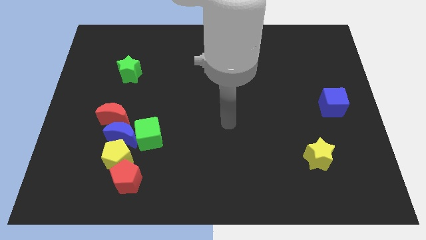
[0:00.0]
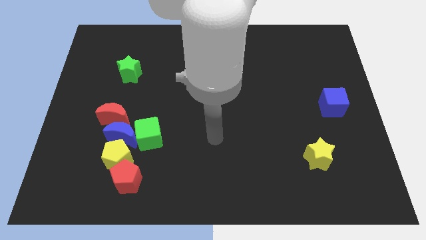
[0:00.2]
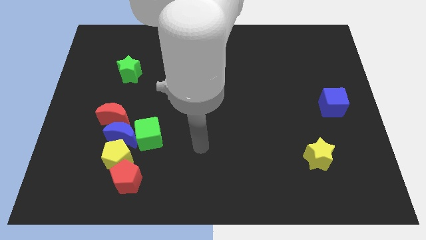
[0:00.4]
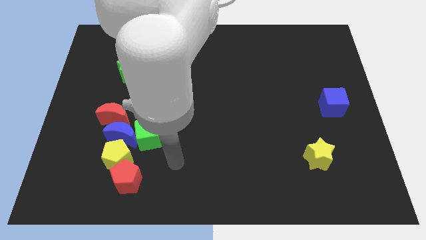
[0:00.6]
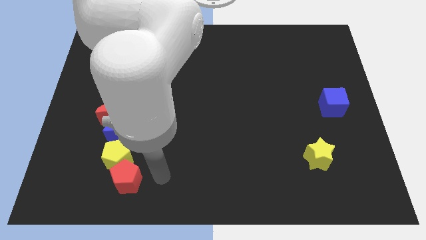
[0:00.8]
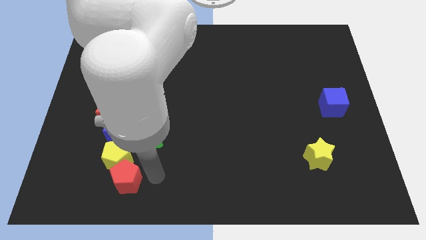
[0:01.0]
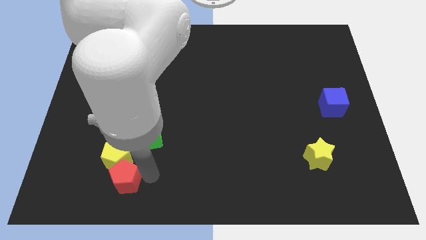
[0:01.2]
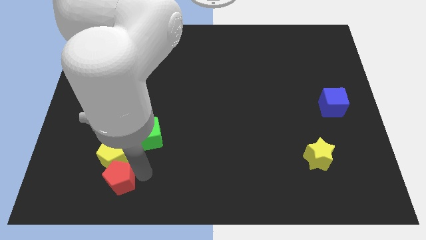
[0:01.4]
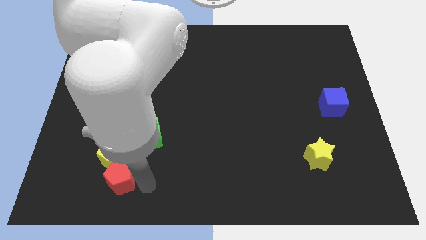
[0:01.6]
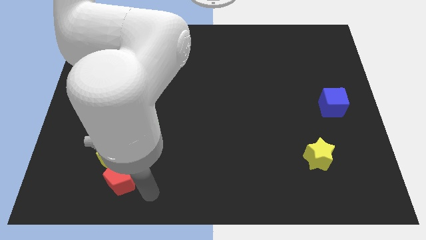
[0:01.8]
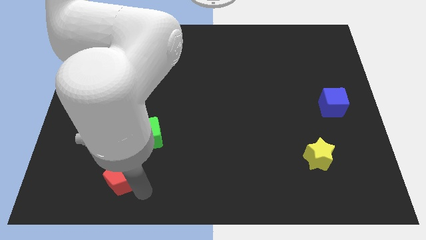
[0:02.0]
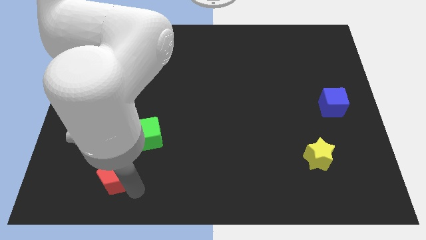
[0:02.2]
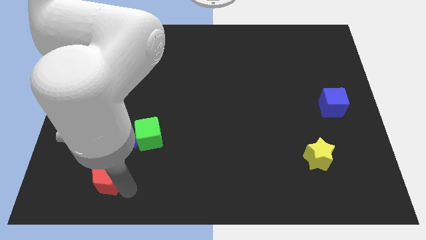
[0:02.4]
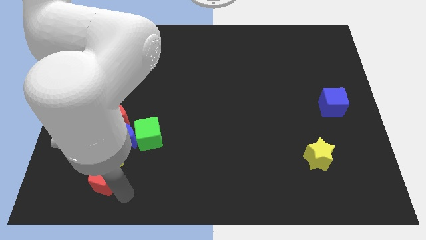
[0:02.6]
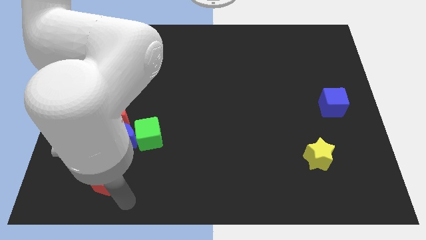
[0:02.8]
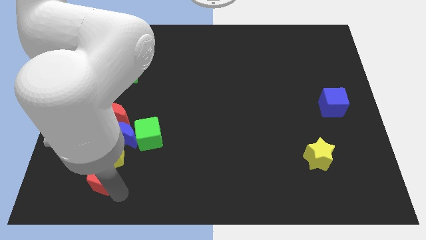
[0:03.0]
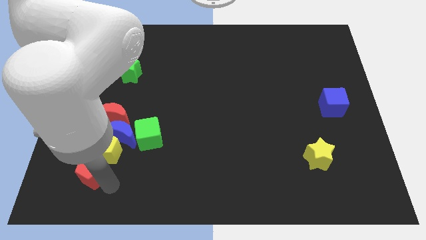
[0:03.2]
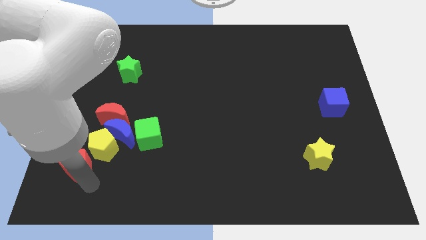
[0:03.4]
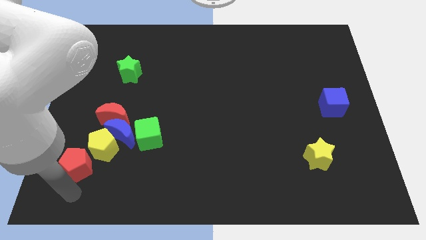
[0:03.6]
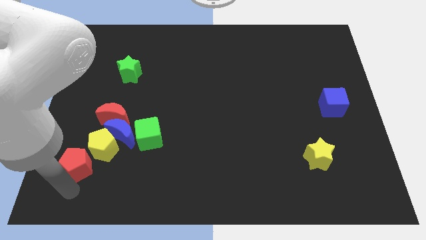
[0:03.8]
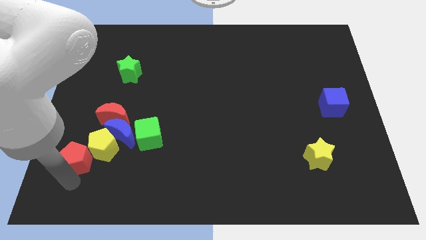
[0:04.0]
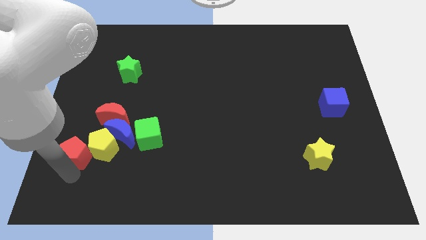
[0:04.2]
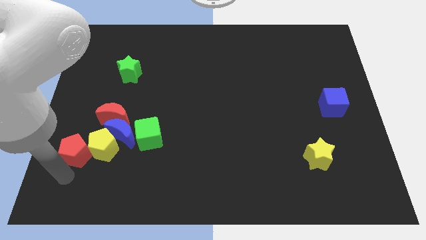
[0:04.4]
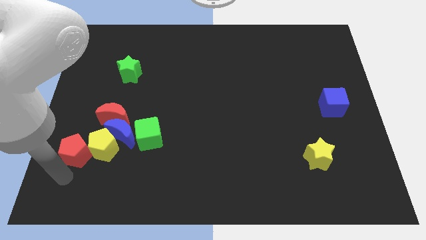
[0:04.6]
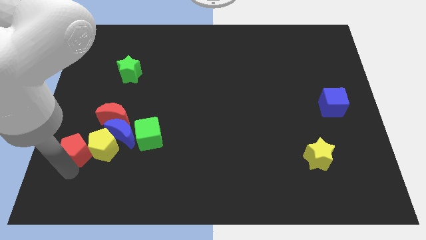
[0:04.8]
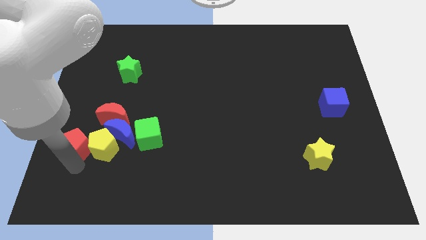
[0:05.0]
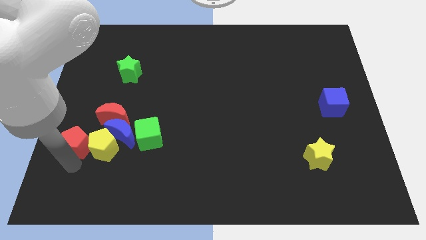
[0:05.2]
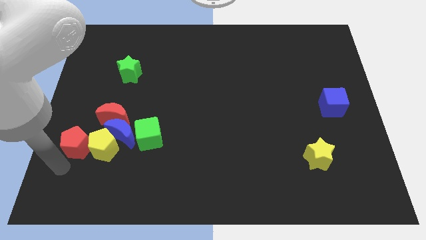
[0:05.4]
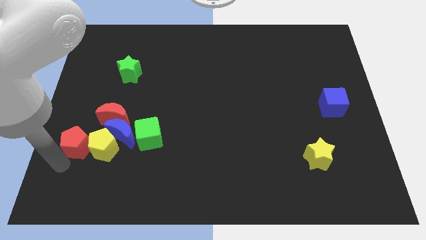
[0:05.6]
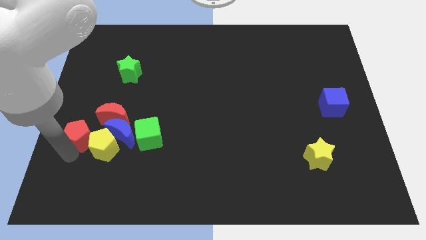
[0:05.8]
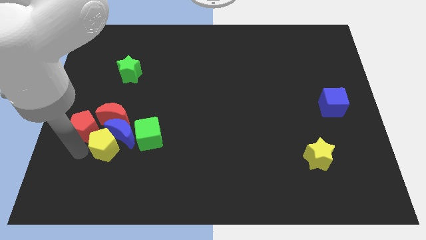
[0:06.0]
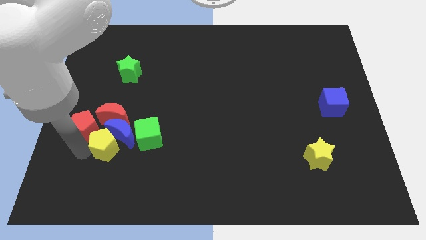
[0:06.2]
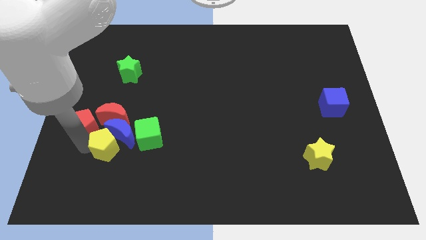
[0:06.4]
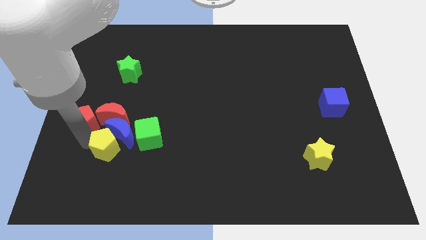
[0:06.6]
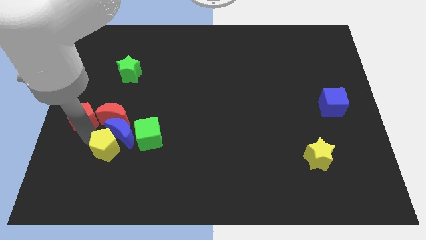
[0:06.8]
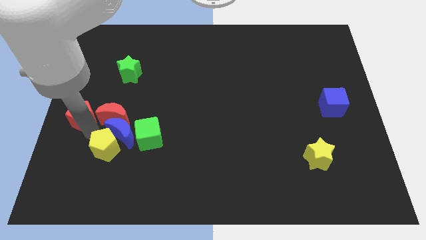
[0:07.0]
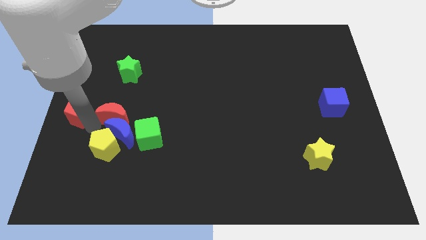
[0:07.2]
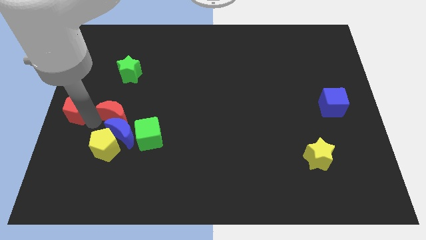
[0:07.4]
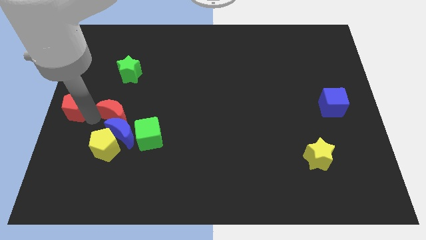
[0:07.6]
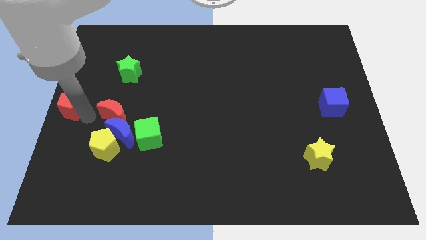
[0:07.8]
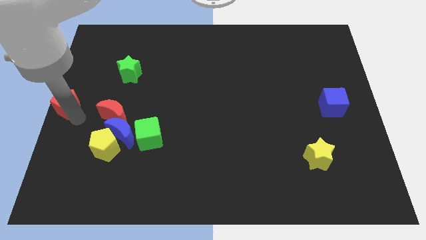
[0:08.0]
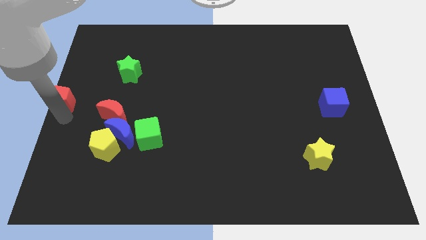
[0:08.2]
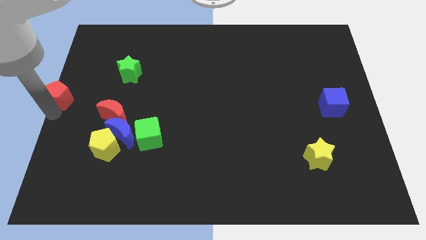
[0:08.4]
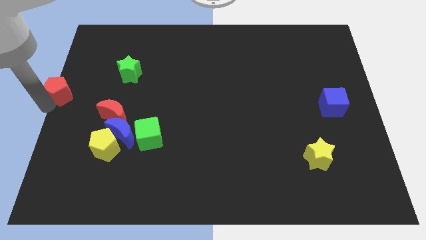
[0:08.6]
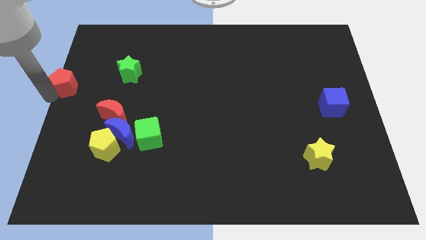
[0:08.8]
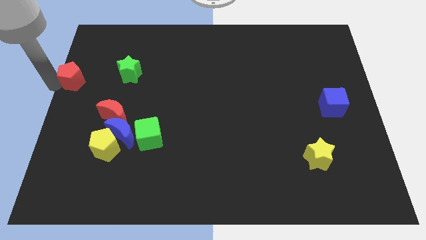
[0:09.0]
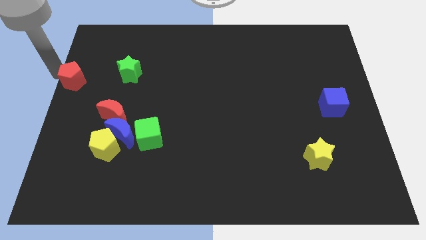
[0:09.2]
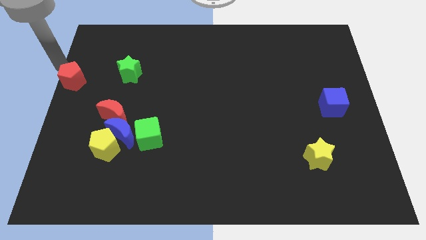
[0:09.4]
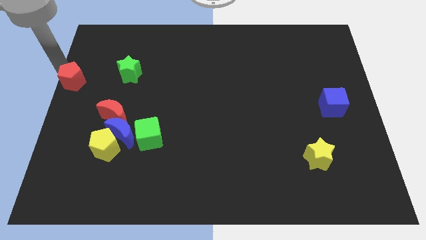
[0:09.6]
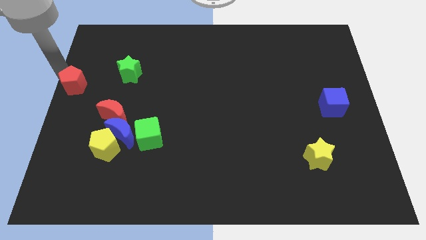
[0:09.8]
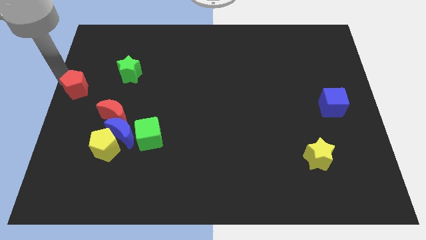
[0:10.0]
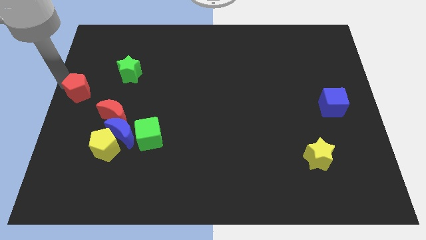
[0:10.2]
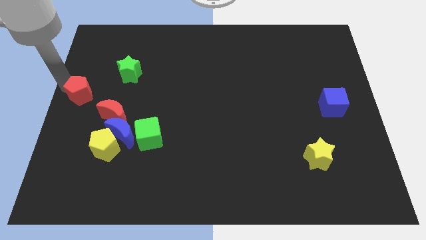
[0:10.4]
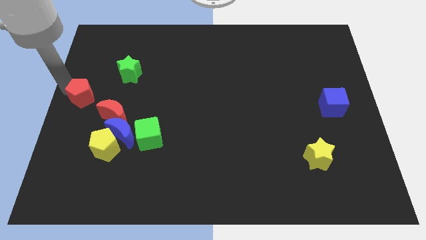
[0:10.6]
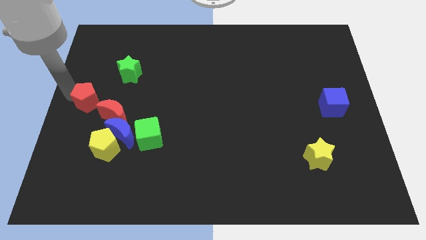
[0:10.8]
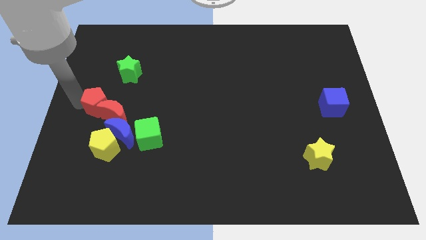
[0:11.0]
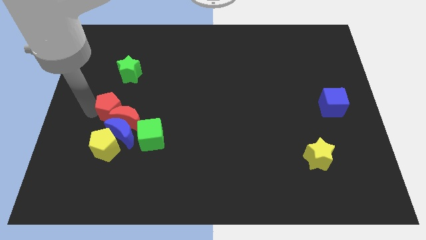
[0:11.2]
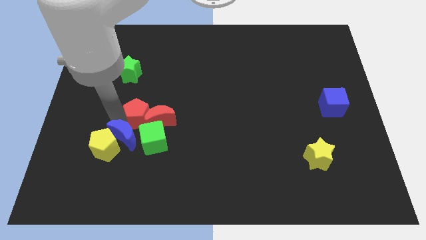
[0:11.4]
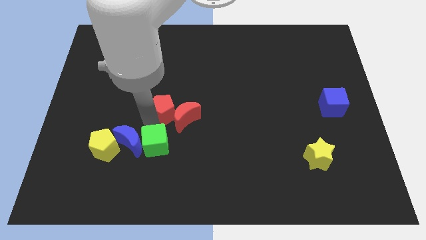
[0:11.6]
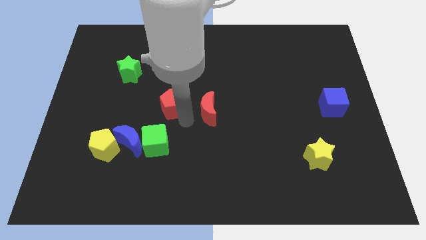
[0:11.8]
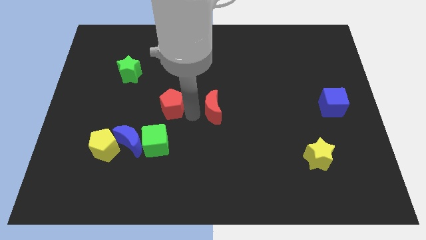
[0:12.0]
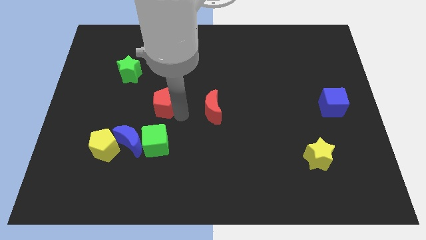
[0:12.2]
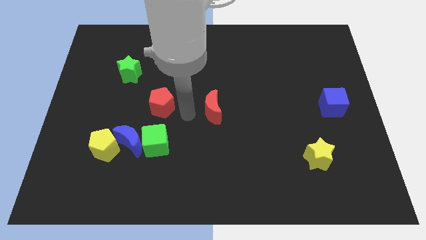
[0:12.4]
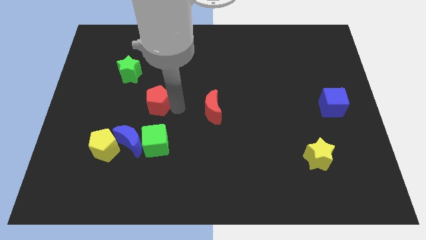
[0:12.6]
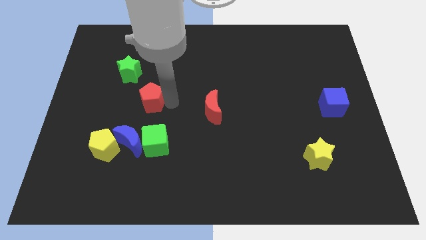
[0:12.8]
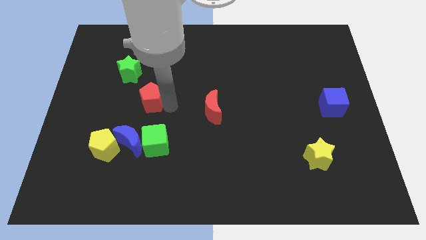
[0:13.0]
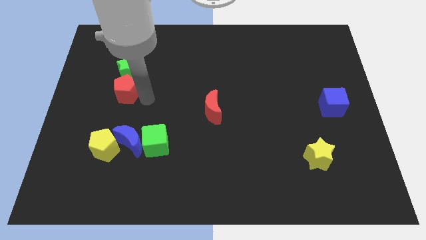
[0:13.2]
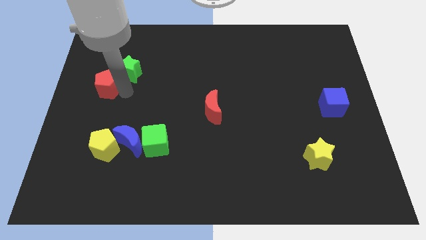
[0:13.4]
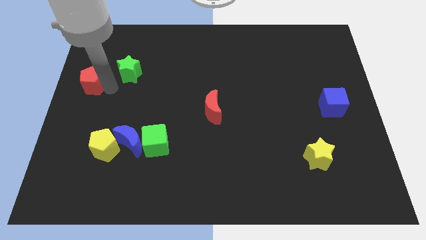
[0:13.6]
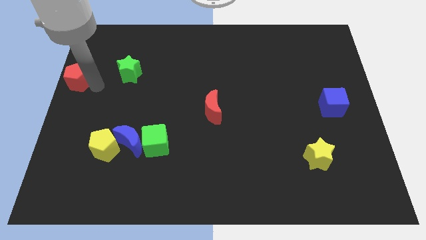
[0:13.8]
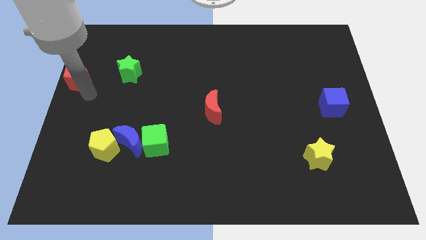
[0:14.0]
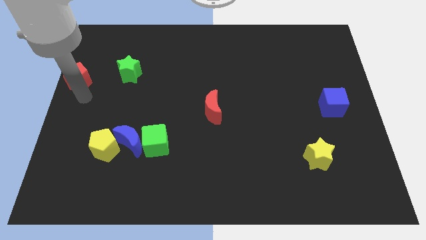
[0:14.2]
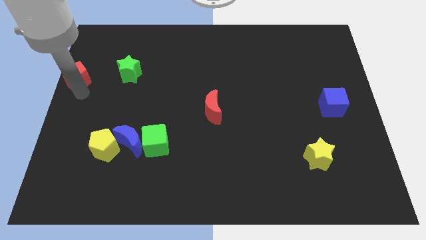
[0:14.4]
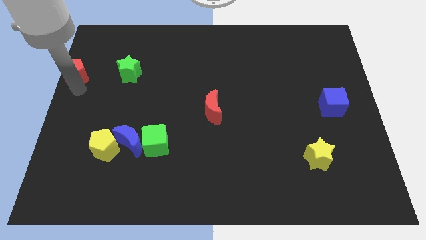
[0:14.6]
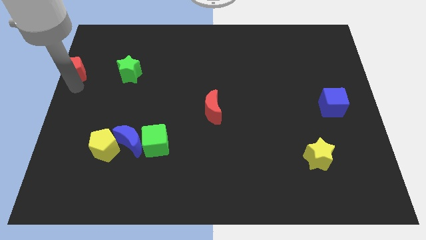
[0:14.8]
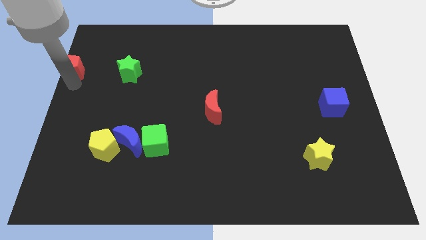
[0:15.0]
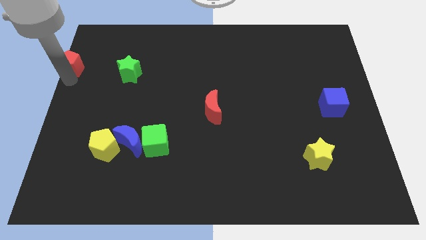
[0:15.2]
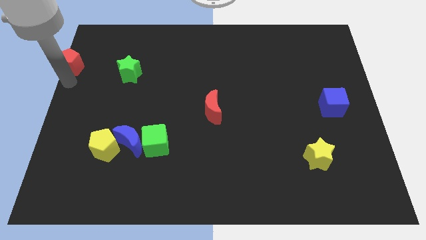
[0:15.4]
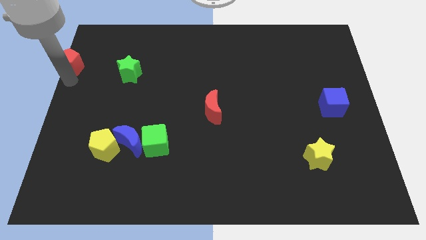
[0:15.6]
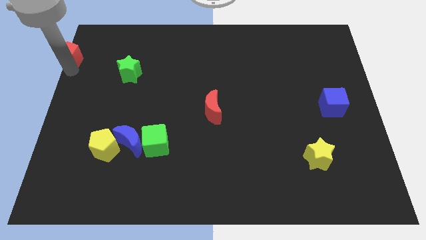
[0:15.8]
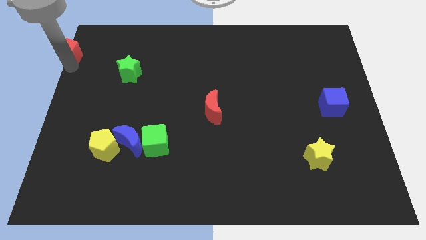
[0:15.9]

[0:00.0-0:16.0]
move the red pentagon to the top left corner
